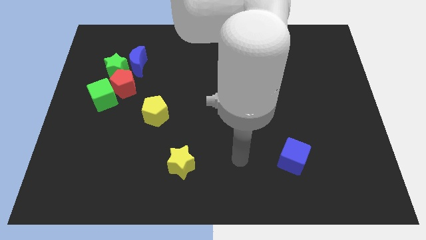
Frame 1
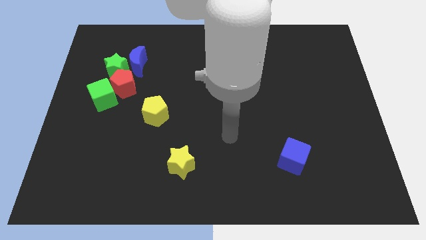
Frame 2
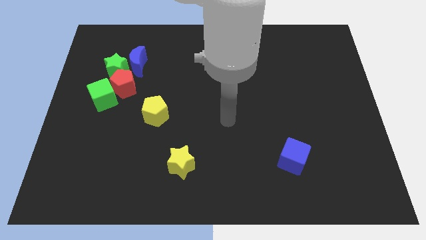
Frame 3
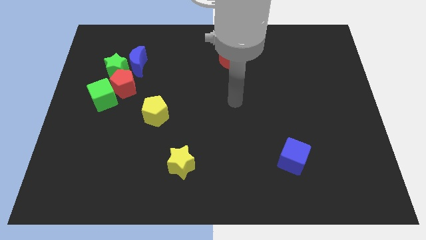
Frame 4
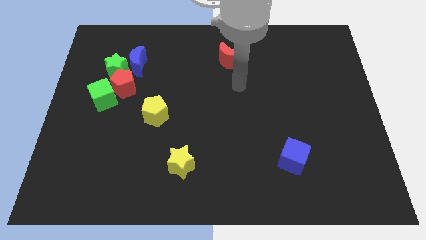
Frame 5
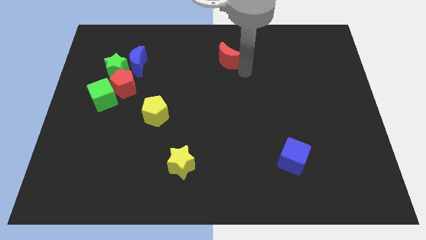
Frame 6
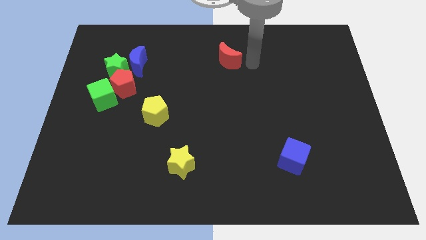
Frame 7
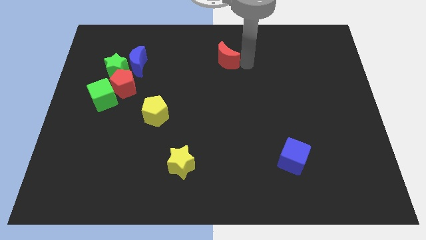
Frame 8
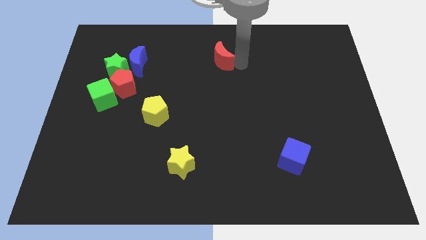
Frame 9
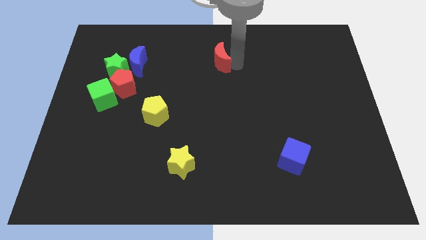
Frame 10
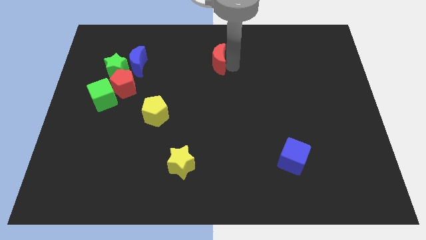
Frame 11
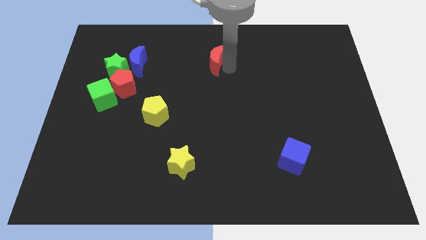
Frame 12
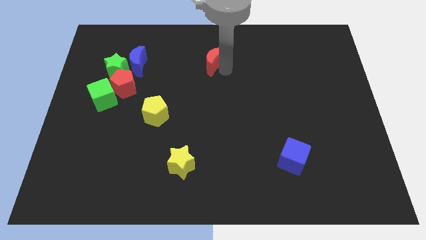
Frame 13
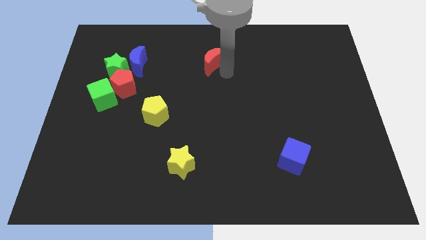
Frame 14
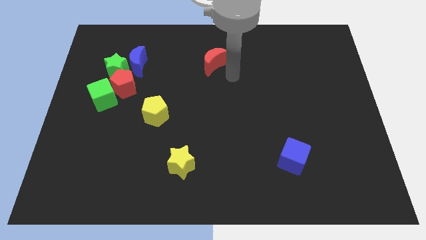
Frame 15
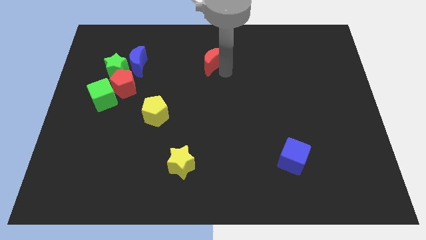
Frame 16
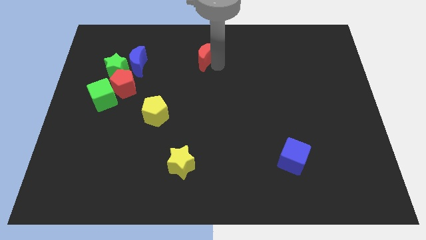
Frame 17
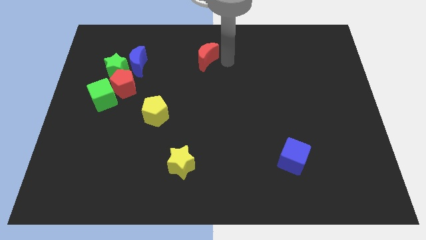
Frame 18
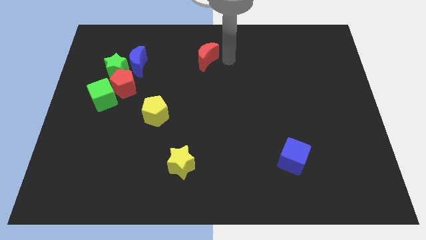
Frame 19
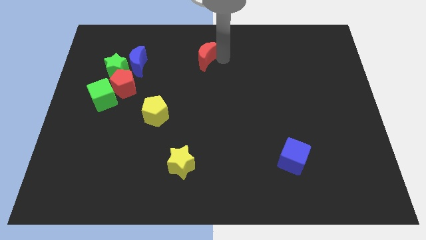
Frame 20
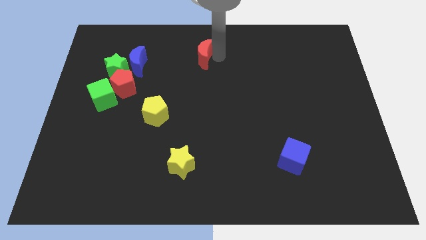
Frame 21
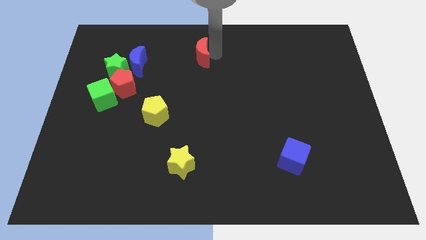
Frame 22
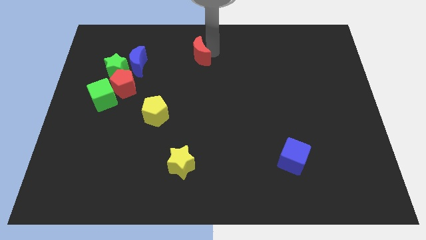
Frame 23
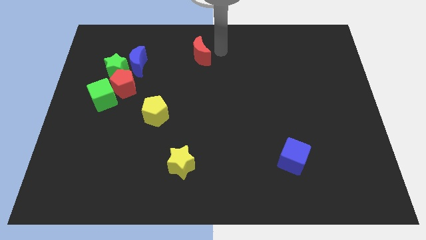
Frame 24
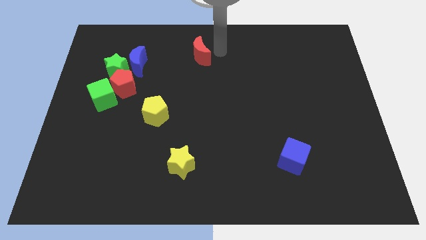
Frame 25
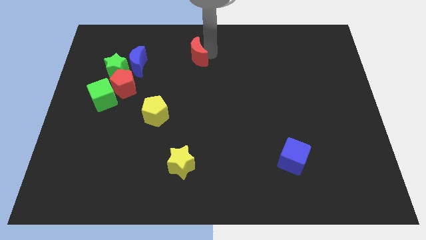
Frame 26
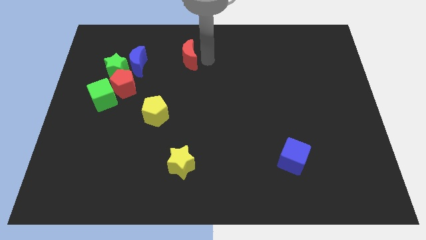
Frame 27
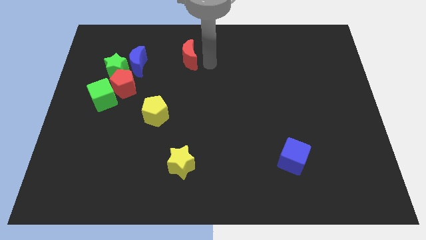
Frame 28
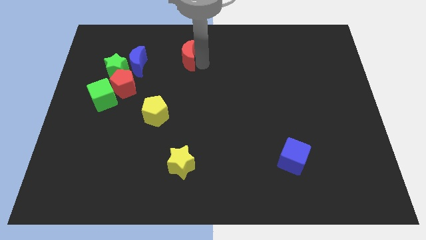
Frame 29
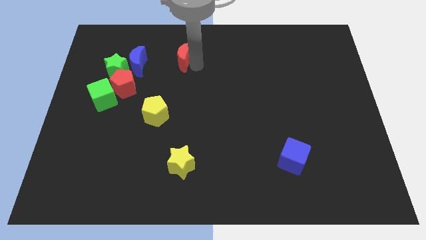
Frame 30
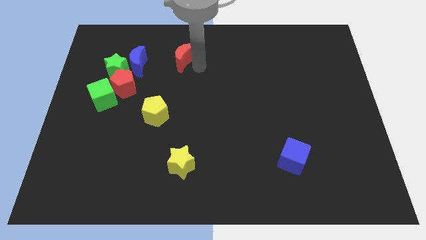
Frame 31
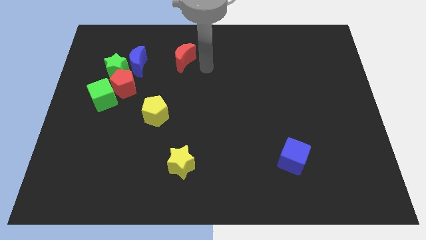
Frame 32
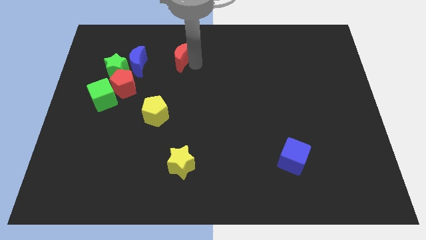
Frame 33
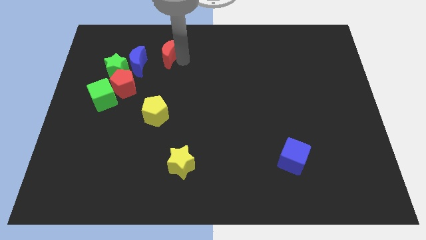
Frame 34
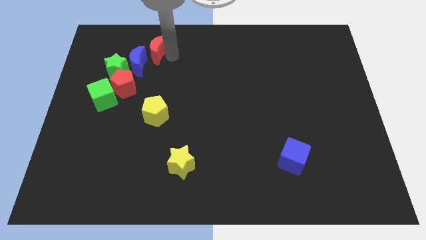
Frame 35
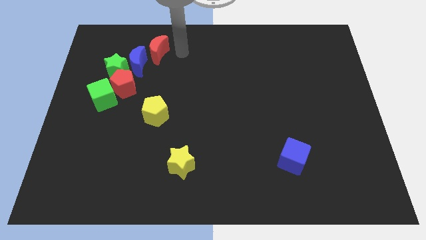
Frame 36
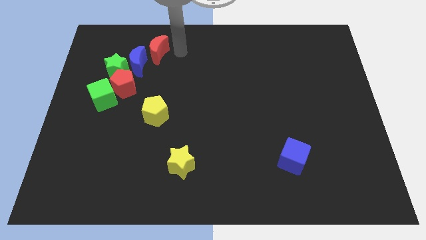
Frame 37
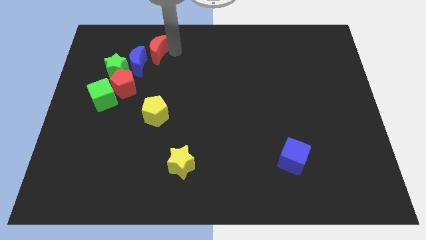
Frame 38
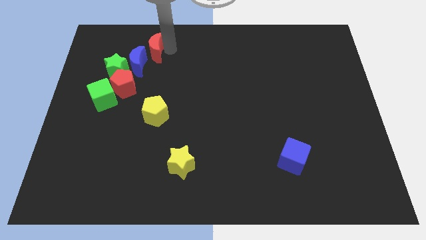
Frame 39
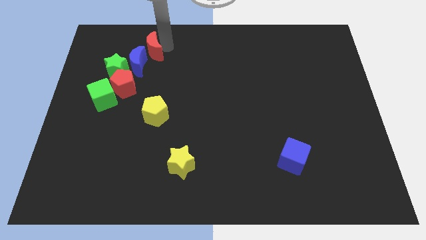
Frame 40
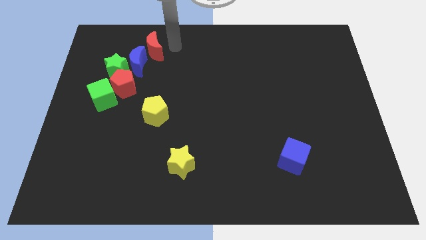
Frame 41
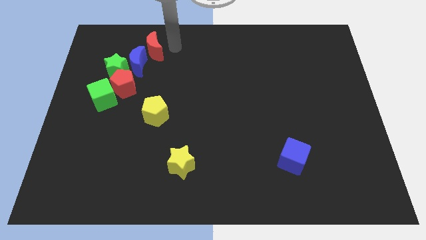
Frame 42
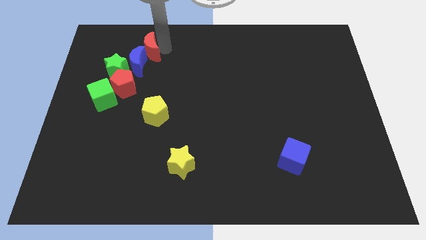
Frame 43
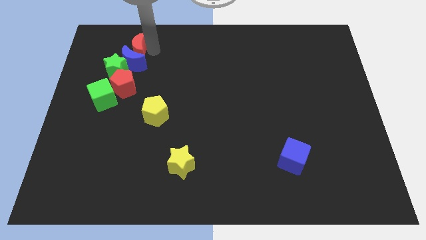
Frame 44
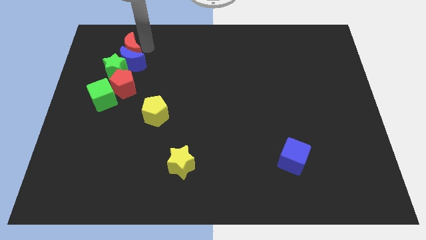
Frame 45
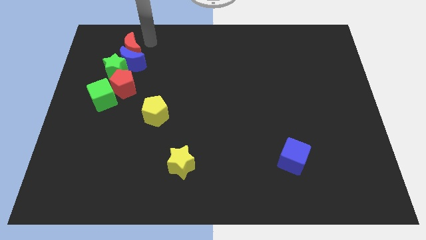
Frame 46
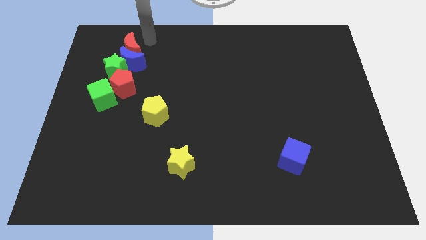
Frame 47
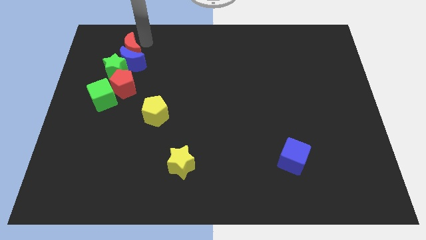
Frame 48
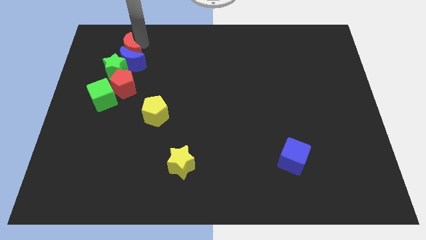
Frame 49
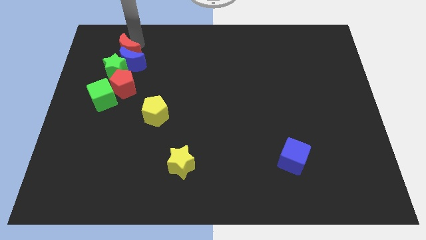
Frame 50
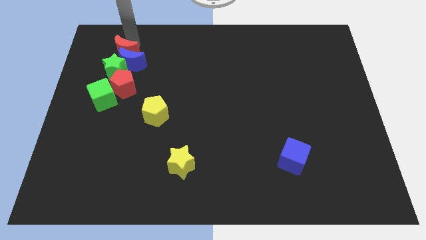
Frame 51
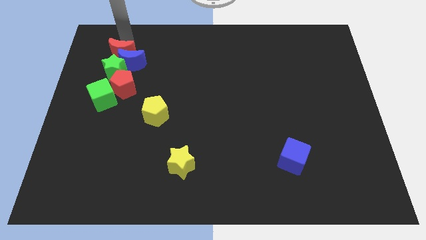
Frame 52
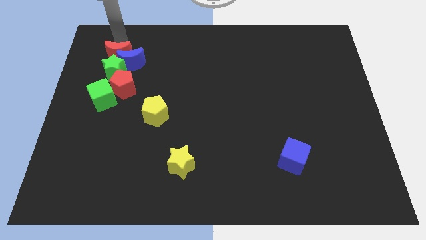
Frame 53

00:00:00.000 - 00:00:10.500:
slide the red moon towards the green star

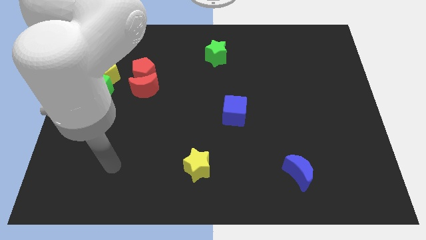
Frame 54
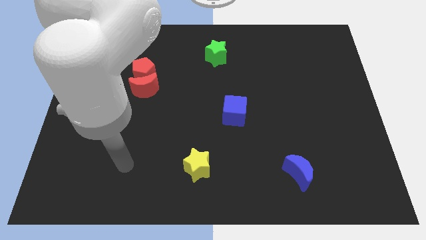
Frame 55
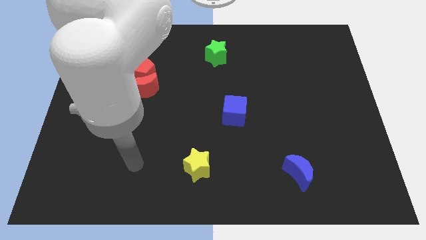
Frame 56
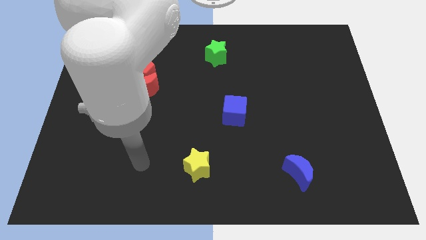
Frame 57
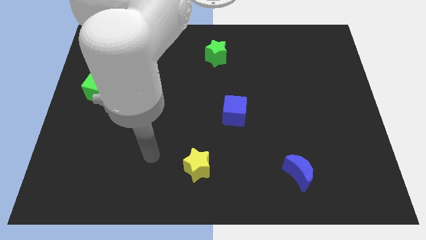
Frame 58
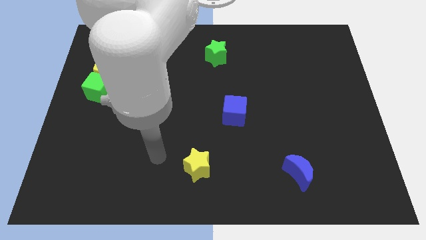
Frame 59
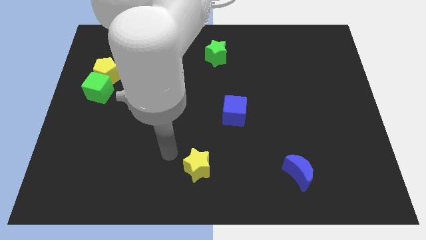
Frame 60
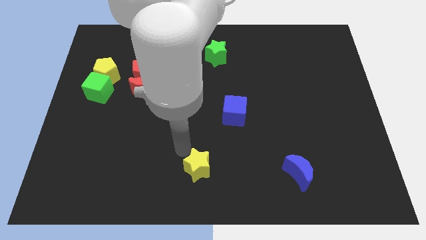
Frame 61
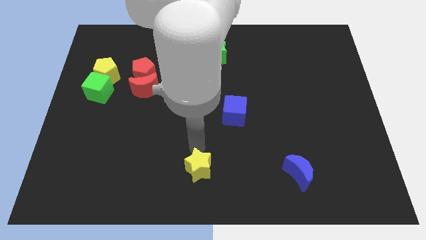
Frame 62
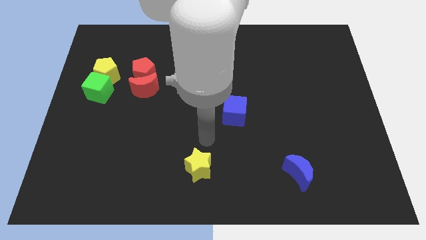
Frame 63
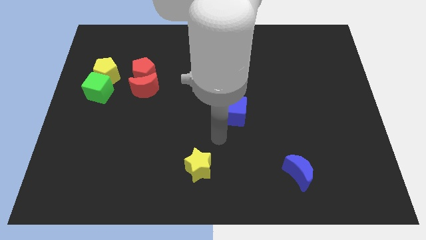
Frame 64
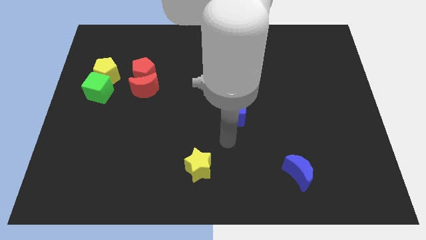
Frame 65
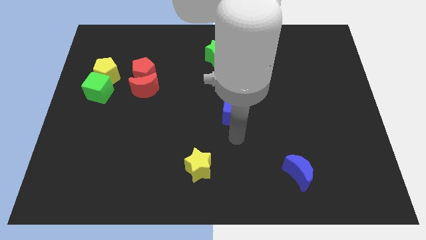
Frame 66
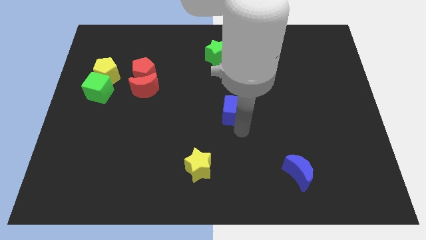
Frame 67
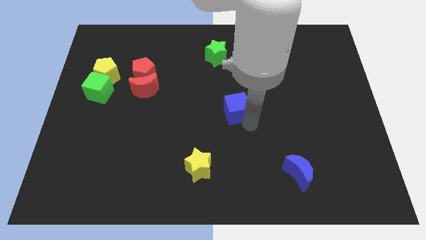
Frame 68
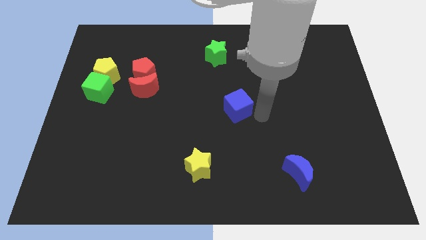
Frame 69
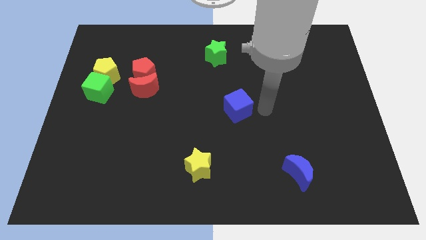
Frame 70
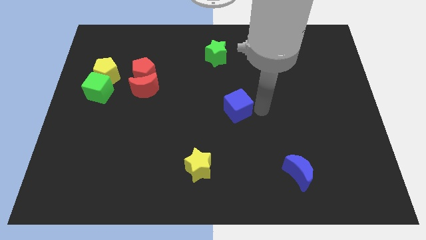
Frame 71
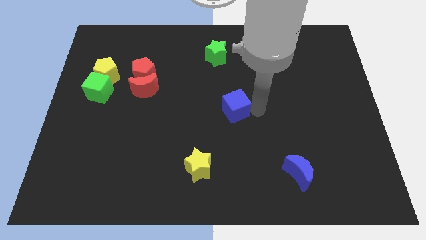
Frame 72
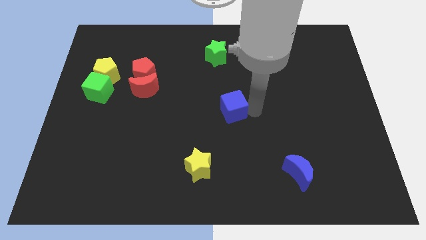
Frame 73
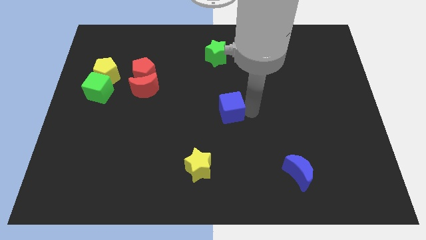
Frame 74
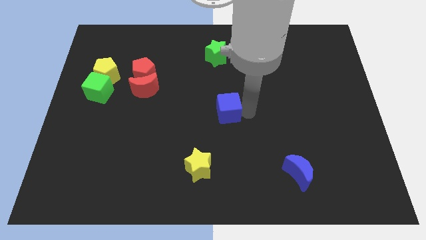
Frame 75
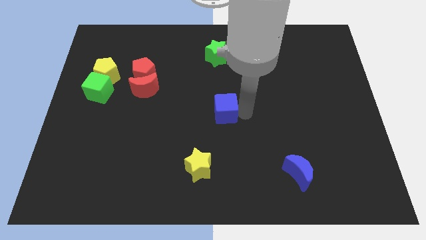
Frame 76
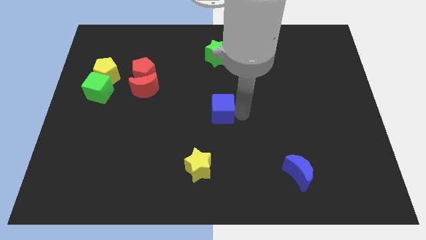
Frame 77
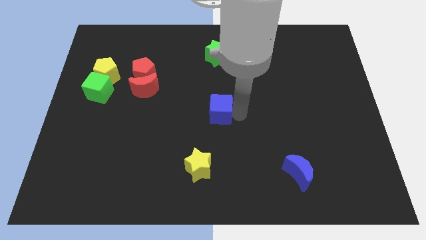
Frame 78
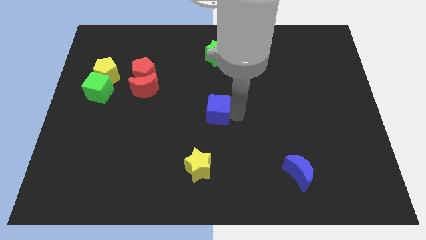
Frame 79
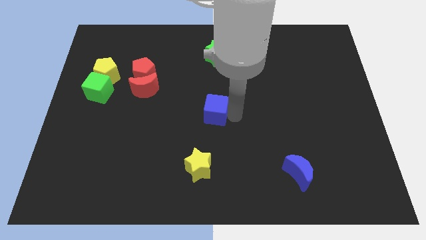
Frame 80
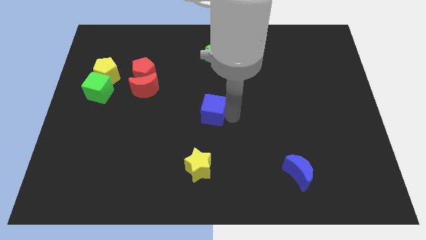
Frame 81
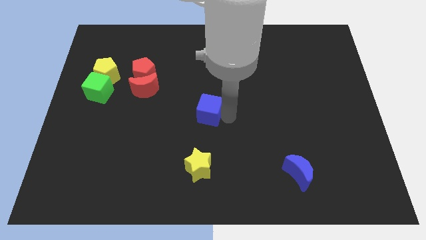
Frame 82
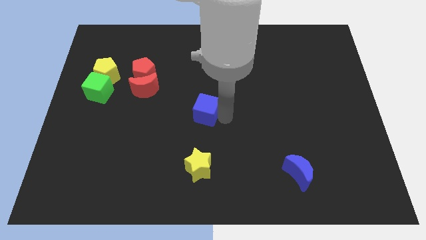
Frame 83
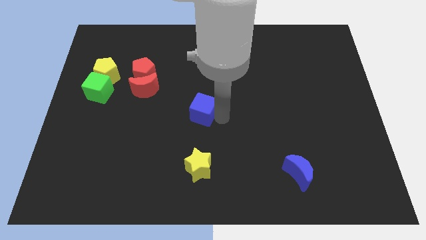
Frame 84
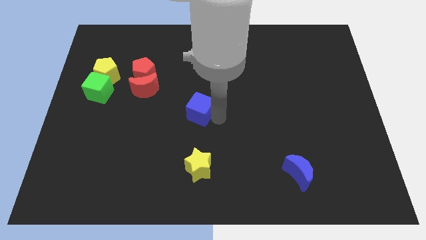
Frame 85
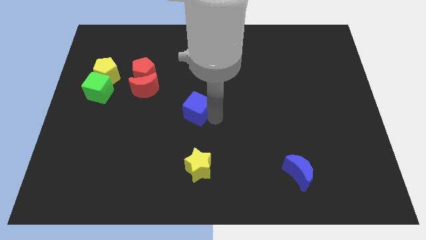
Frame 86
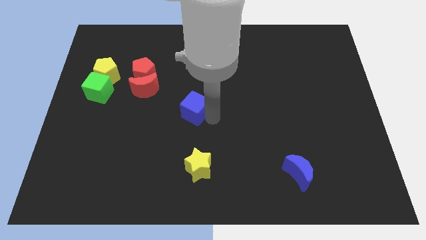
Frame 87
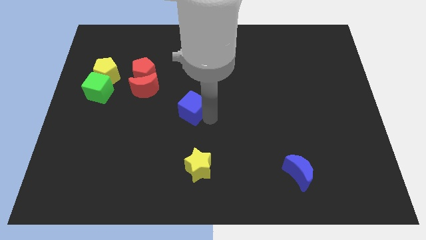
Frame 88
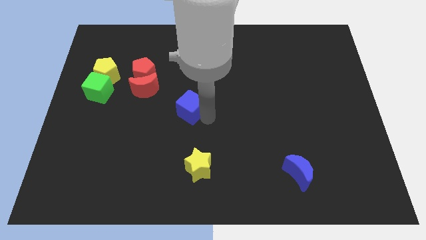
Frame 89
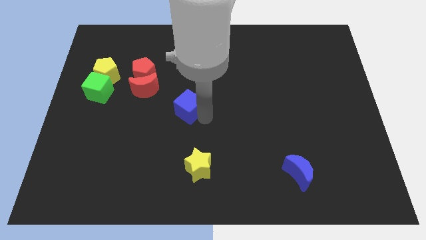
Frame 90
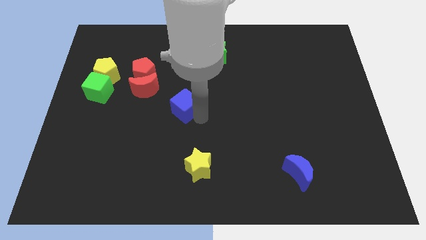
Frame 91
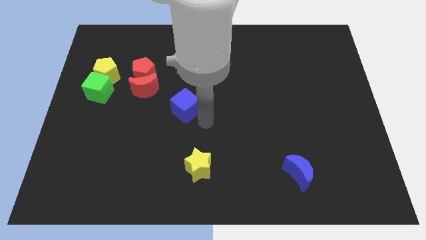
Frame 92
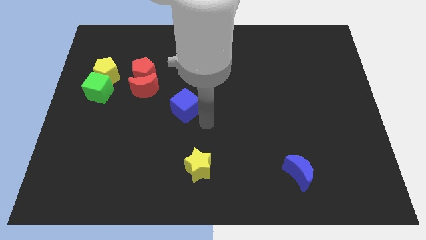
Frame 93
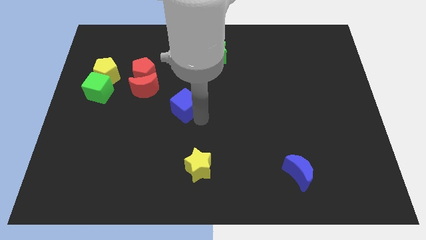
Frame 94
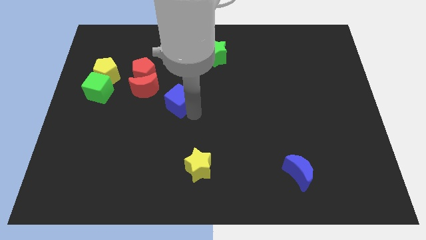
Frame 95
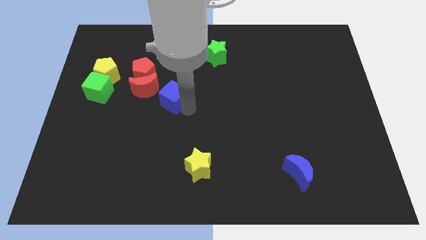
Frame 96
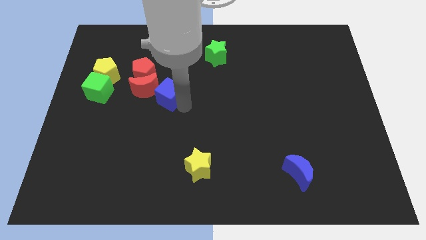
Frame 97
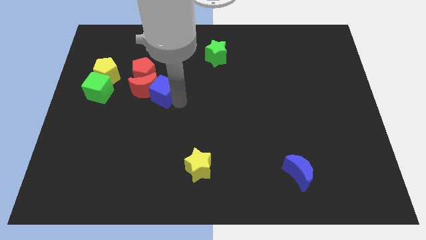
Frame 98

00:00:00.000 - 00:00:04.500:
move the blue cube close to the red moon
